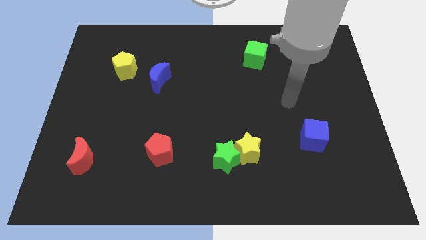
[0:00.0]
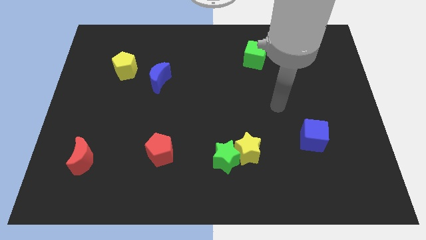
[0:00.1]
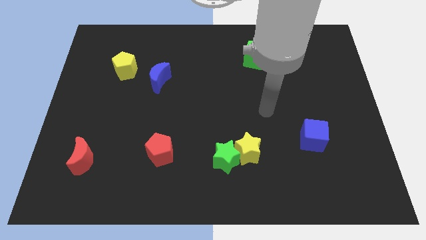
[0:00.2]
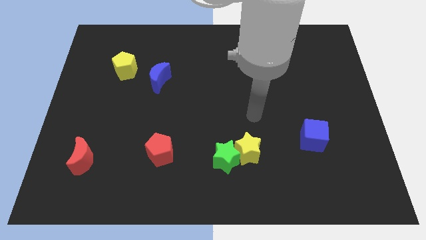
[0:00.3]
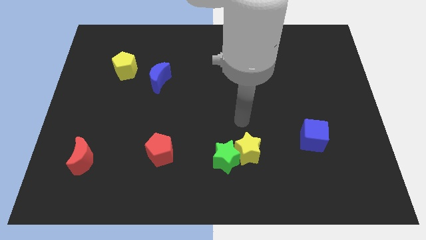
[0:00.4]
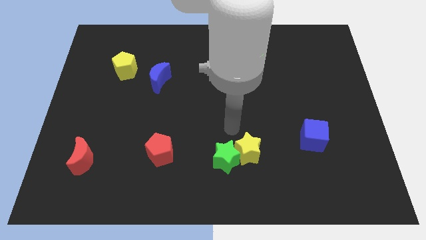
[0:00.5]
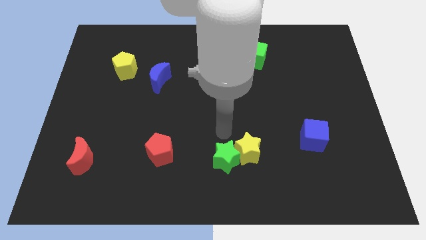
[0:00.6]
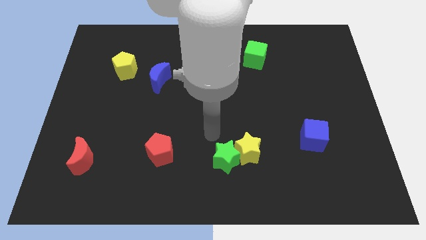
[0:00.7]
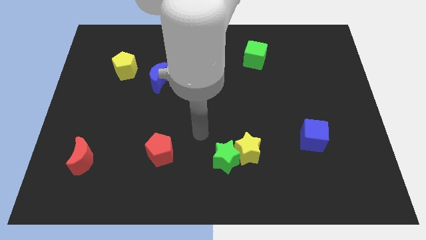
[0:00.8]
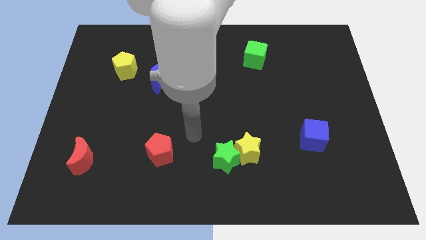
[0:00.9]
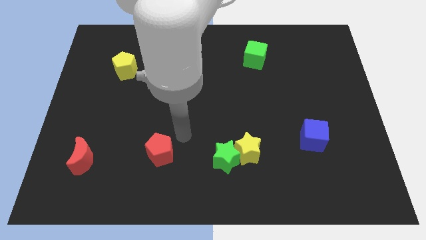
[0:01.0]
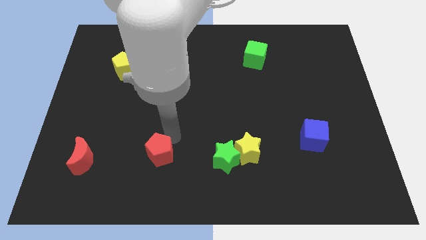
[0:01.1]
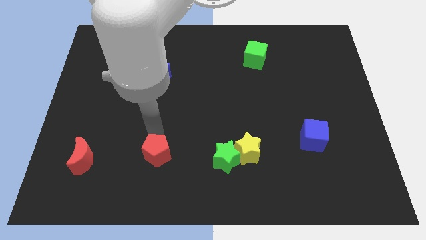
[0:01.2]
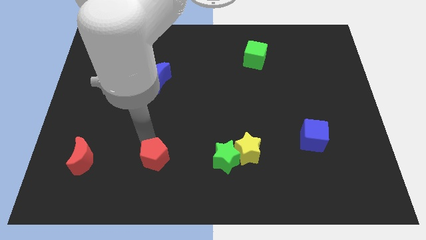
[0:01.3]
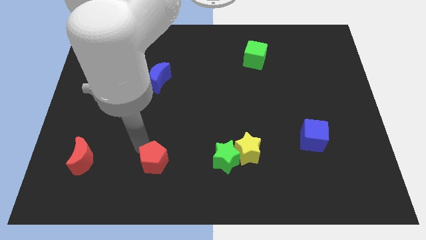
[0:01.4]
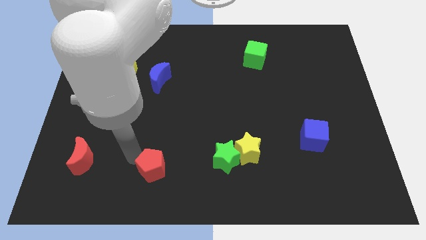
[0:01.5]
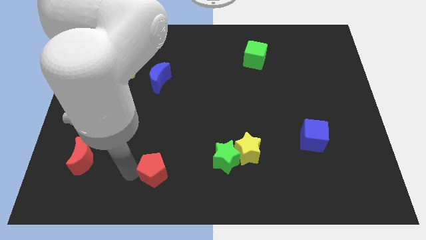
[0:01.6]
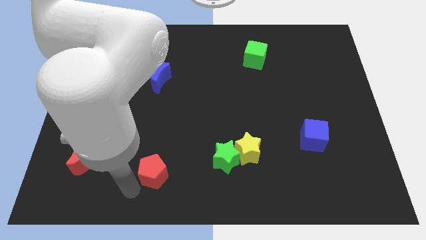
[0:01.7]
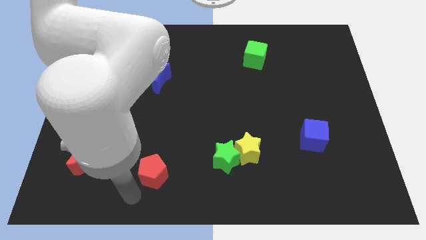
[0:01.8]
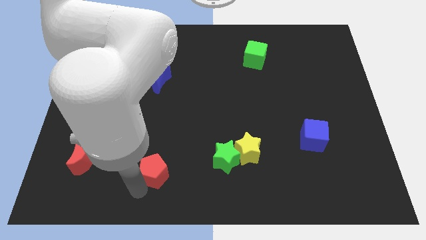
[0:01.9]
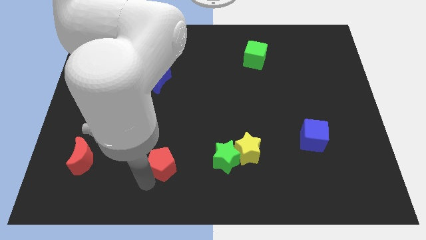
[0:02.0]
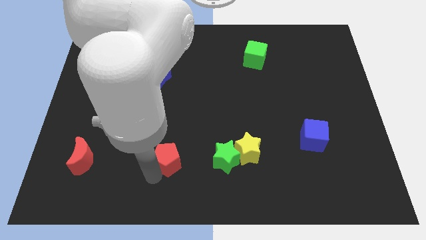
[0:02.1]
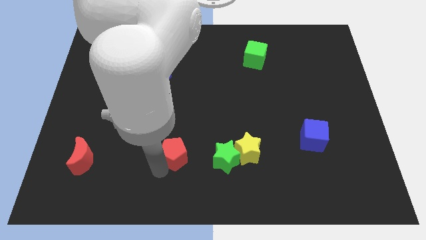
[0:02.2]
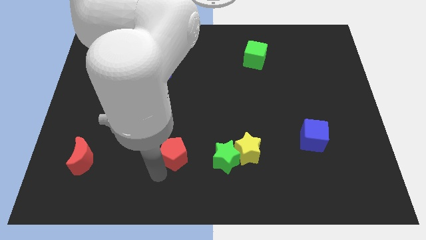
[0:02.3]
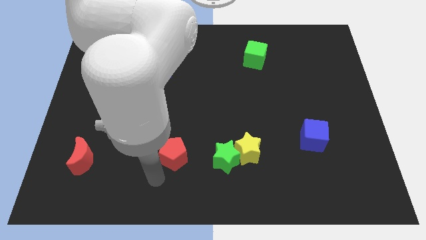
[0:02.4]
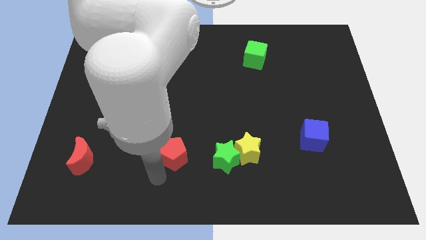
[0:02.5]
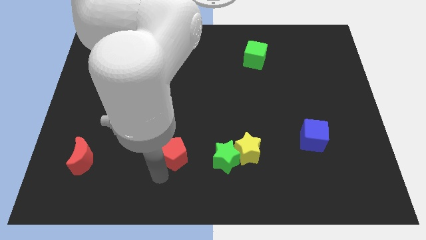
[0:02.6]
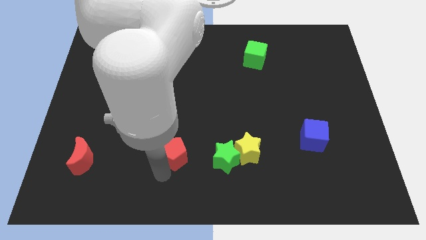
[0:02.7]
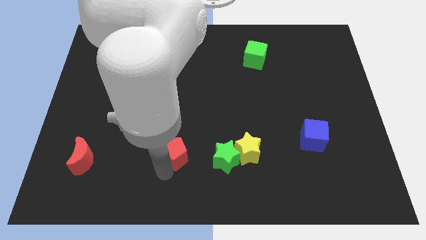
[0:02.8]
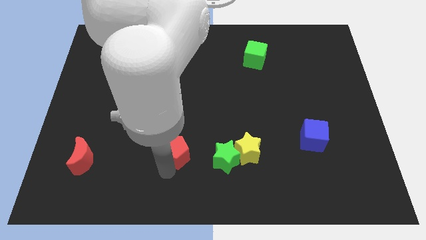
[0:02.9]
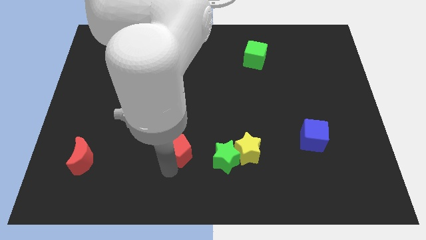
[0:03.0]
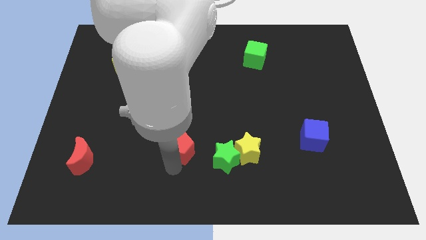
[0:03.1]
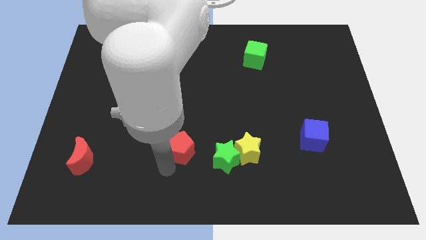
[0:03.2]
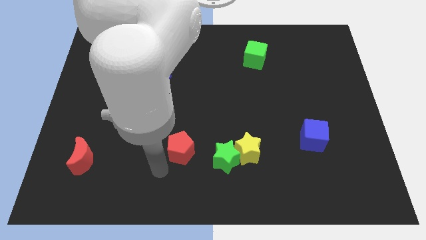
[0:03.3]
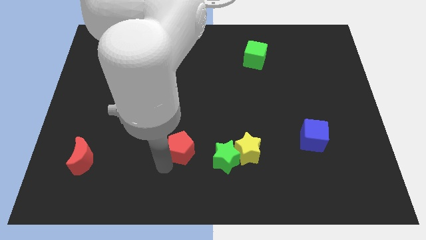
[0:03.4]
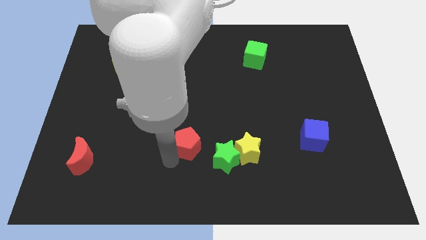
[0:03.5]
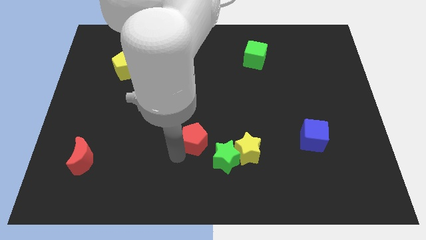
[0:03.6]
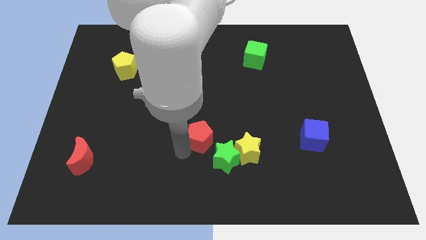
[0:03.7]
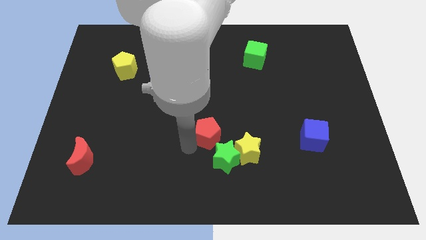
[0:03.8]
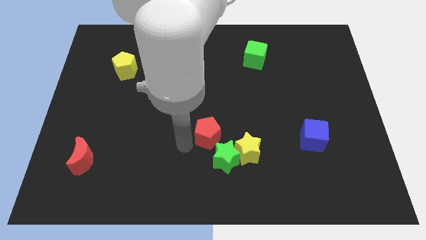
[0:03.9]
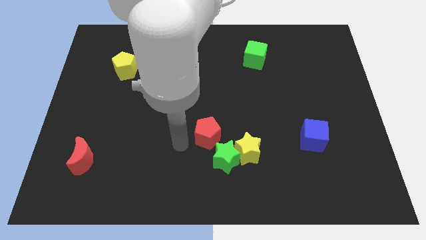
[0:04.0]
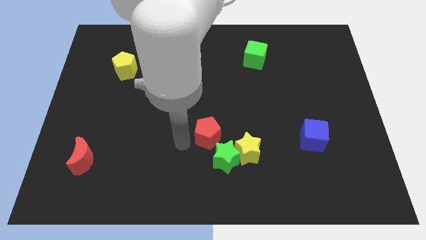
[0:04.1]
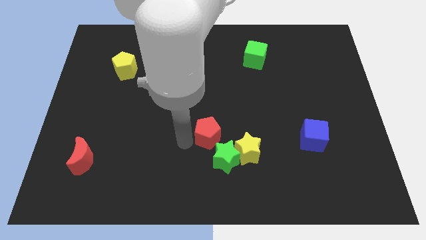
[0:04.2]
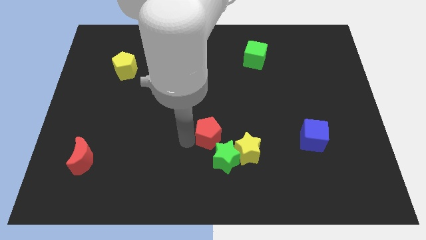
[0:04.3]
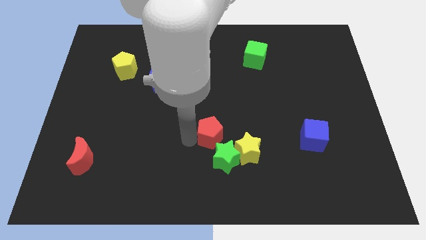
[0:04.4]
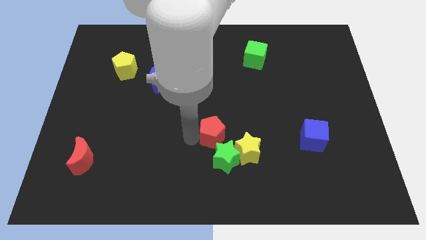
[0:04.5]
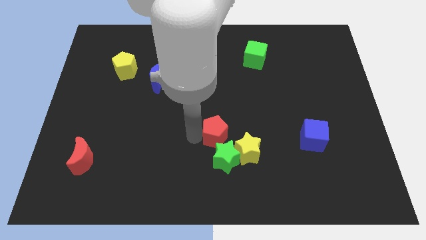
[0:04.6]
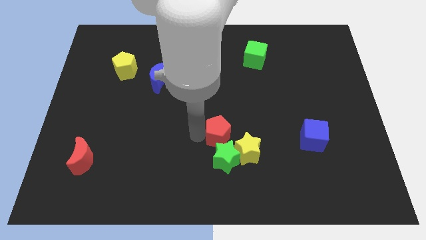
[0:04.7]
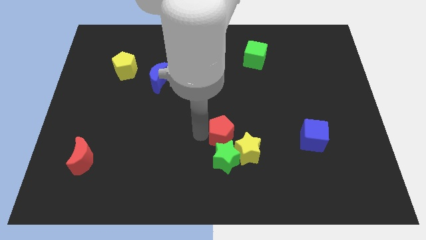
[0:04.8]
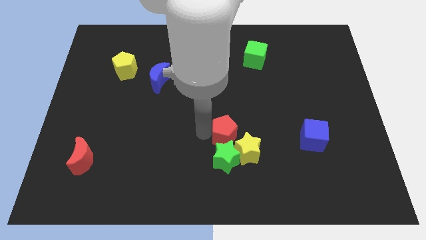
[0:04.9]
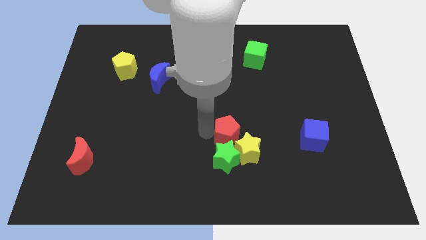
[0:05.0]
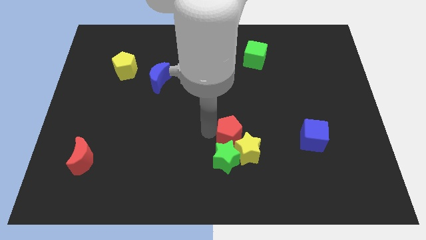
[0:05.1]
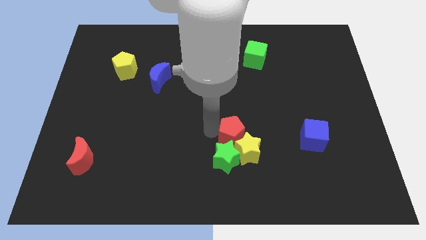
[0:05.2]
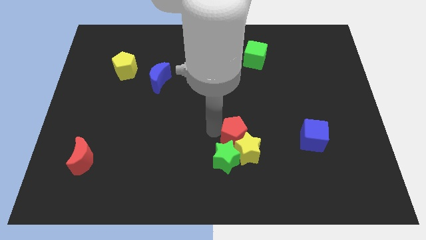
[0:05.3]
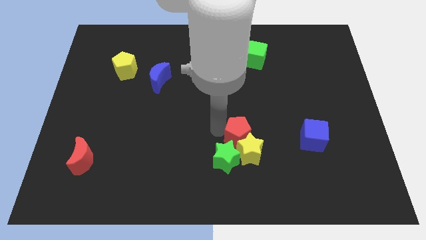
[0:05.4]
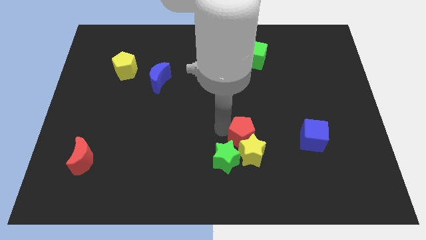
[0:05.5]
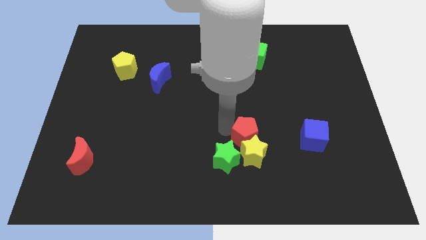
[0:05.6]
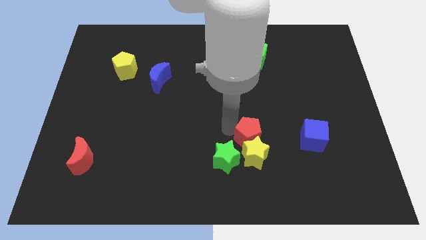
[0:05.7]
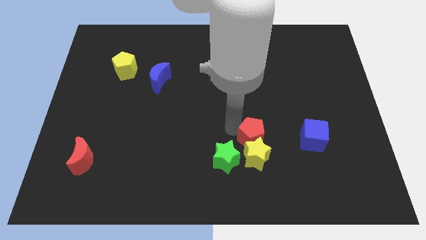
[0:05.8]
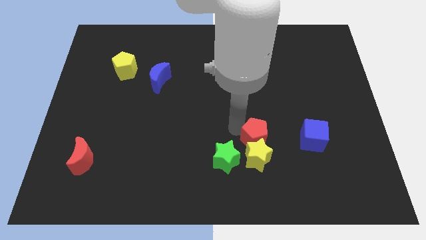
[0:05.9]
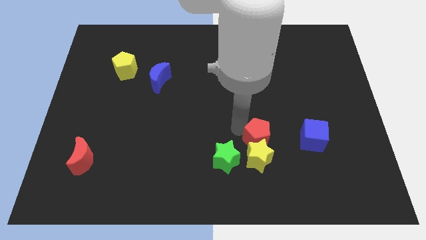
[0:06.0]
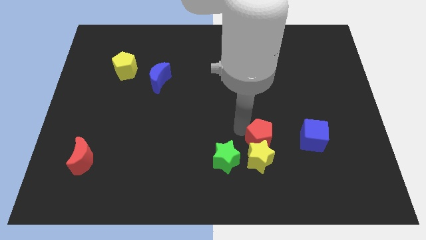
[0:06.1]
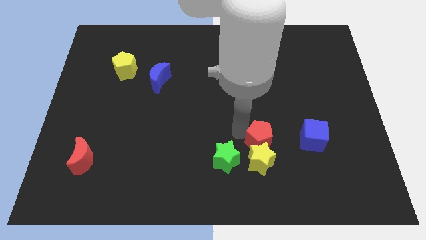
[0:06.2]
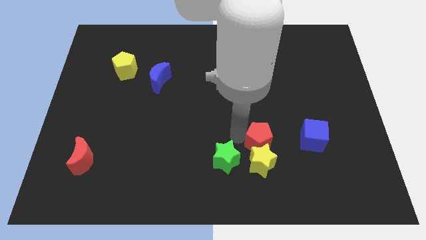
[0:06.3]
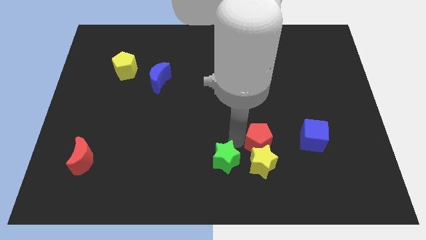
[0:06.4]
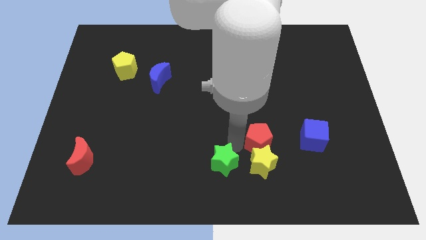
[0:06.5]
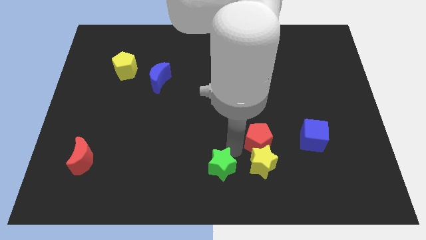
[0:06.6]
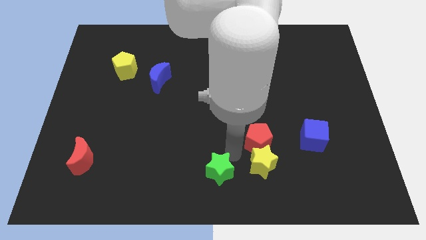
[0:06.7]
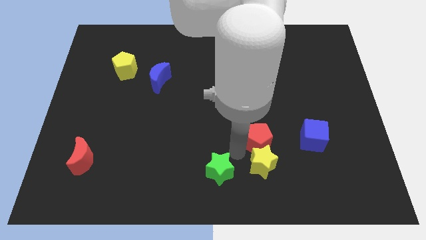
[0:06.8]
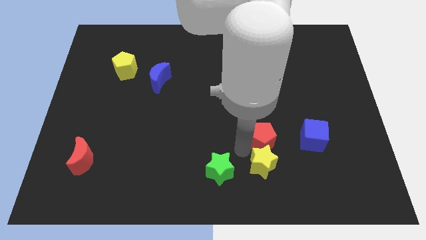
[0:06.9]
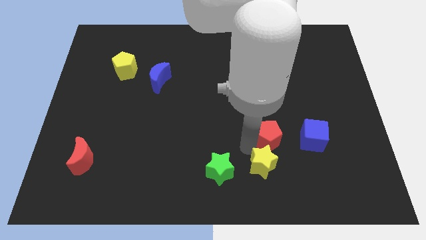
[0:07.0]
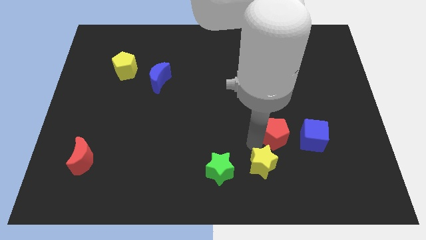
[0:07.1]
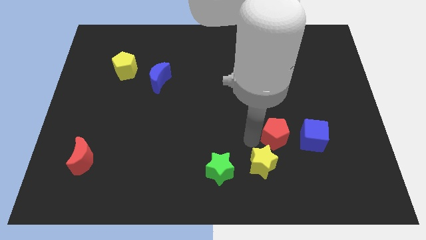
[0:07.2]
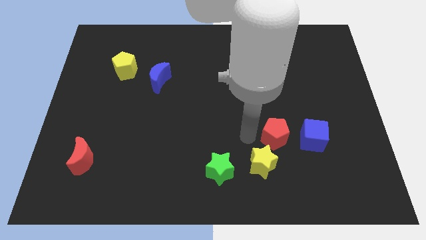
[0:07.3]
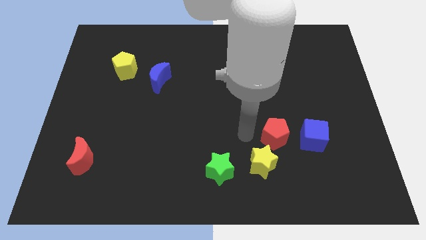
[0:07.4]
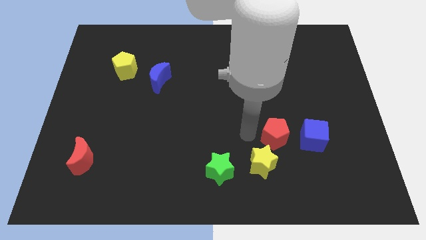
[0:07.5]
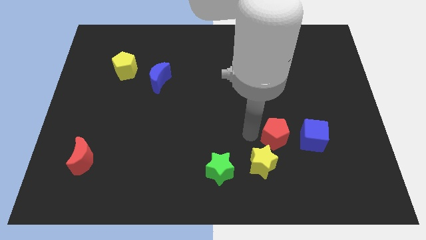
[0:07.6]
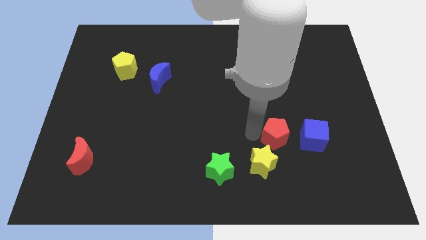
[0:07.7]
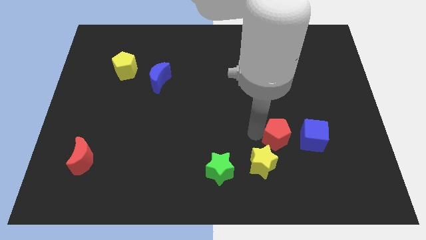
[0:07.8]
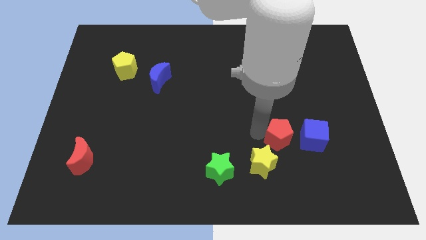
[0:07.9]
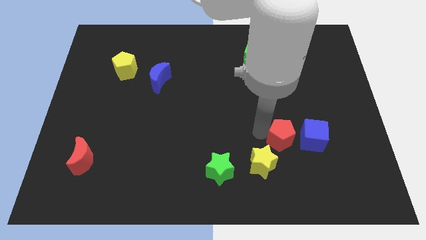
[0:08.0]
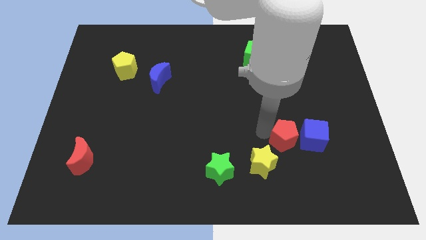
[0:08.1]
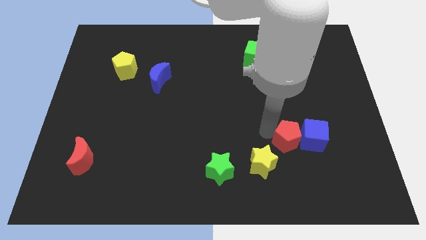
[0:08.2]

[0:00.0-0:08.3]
push the red pentagon towards the blue cube
